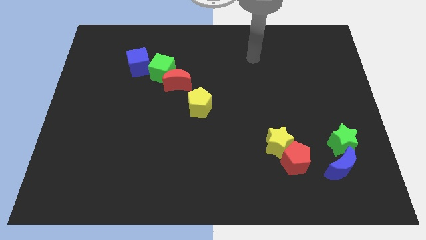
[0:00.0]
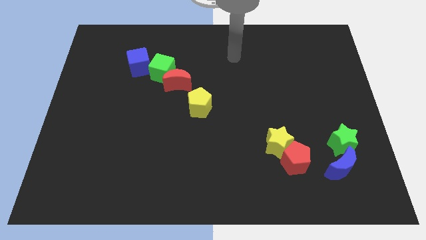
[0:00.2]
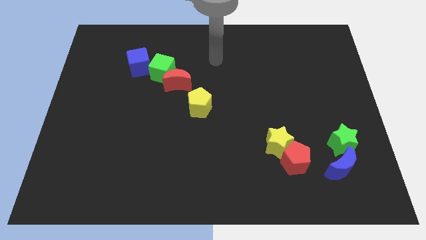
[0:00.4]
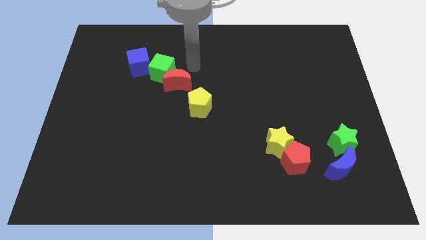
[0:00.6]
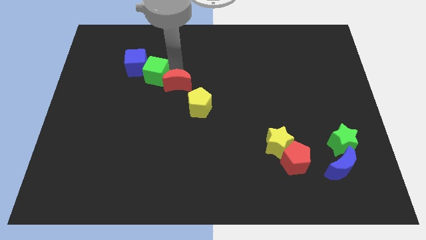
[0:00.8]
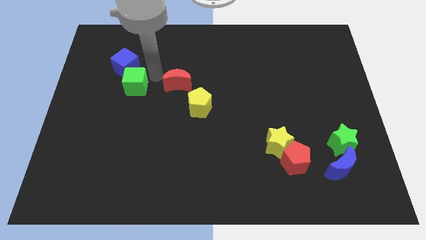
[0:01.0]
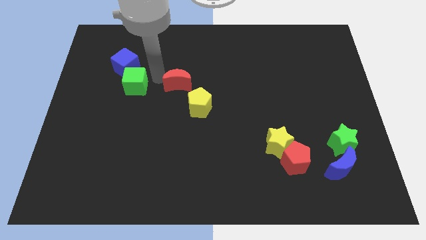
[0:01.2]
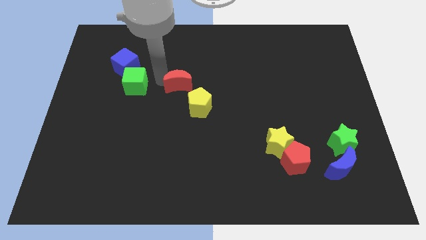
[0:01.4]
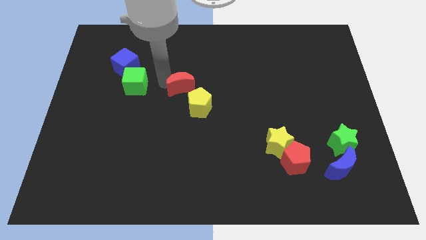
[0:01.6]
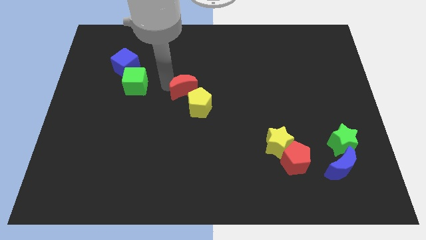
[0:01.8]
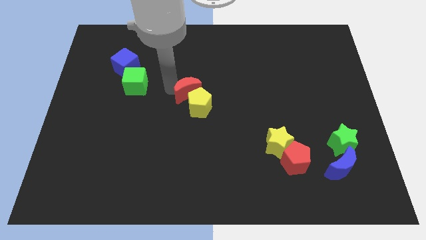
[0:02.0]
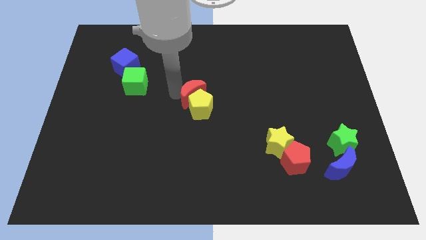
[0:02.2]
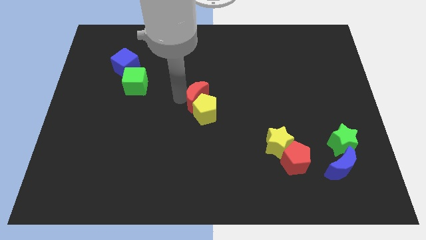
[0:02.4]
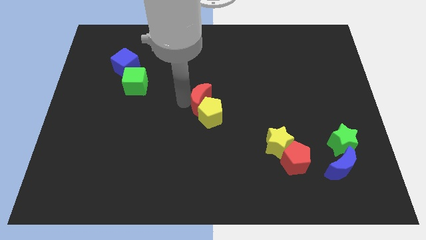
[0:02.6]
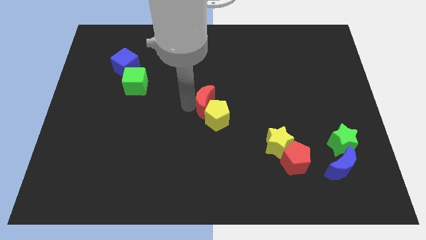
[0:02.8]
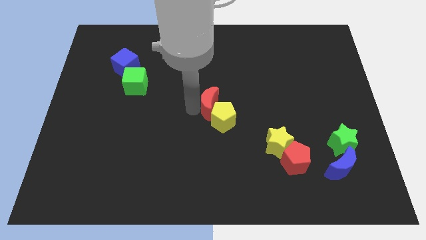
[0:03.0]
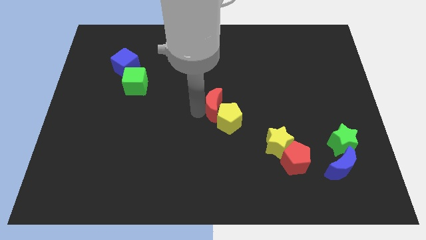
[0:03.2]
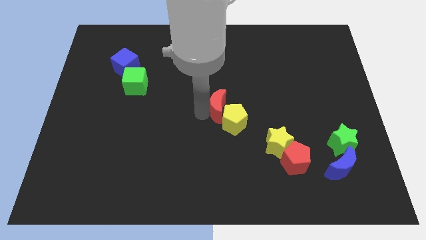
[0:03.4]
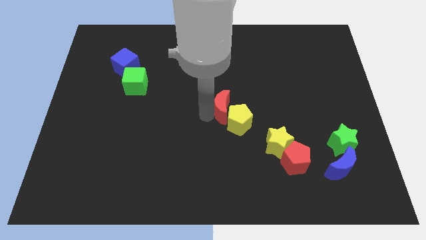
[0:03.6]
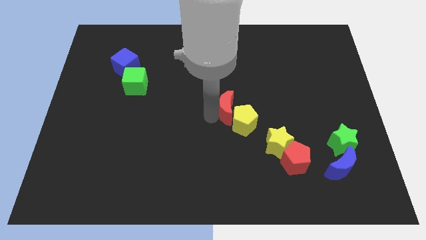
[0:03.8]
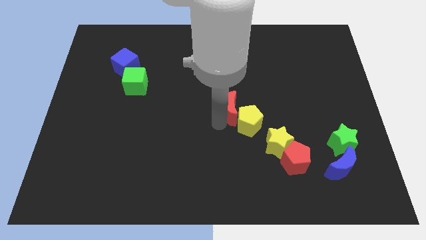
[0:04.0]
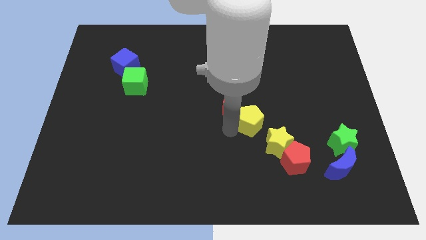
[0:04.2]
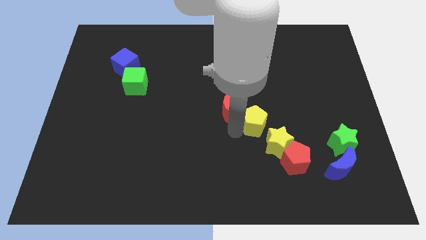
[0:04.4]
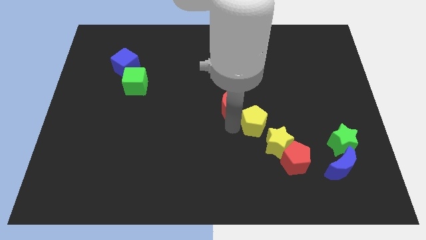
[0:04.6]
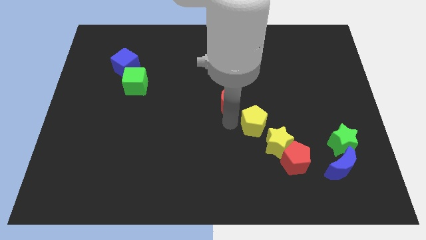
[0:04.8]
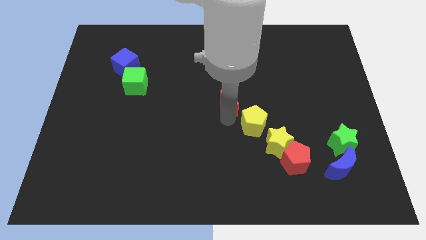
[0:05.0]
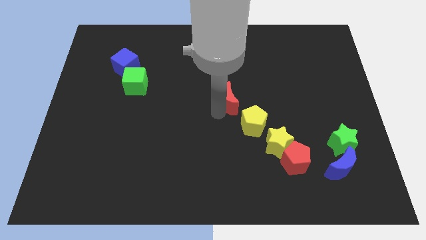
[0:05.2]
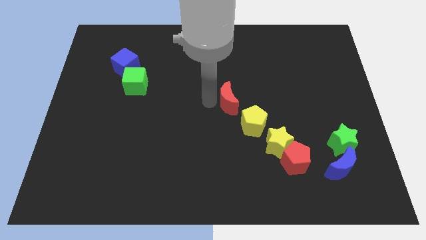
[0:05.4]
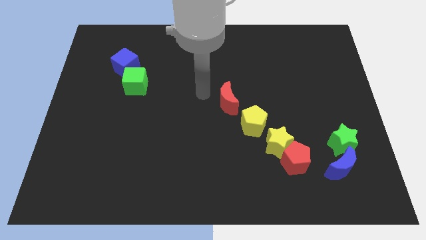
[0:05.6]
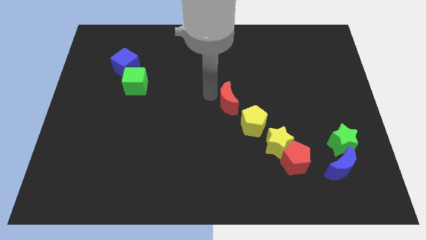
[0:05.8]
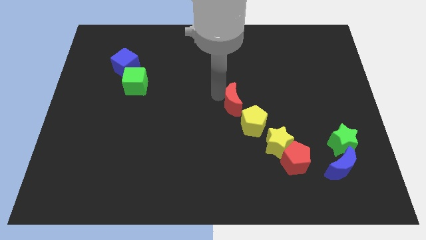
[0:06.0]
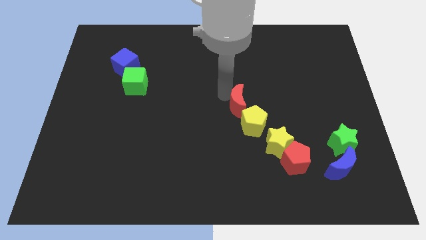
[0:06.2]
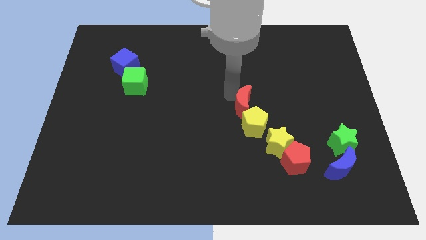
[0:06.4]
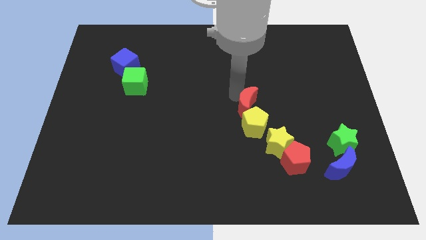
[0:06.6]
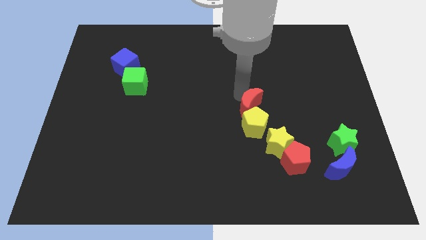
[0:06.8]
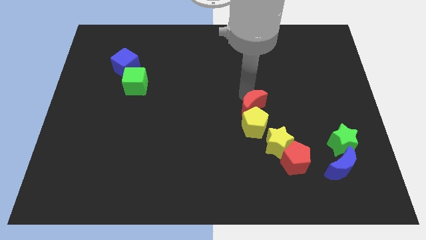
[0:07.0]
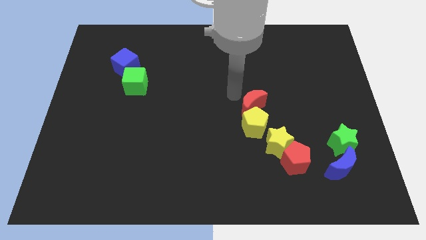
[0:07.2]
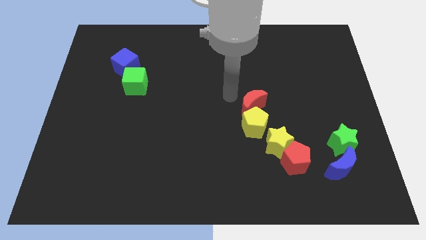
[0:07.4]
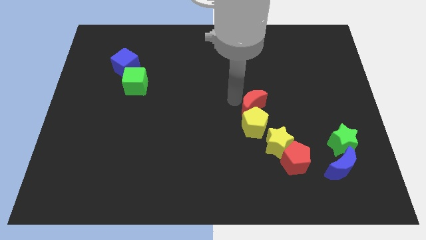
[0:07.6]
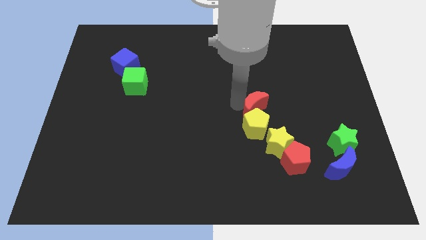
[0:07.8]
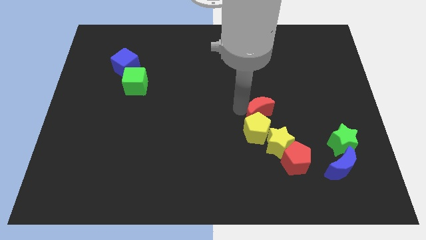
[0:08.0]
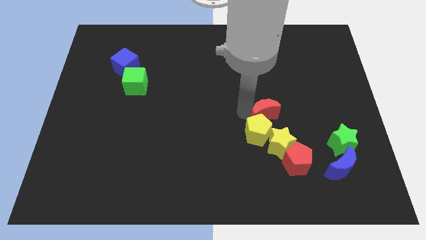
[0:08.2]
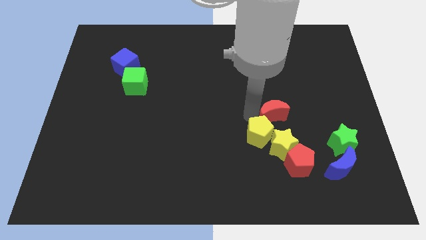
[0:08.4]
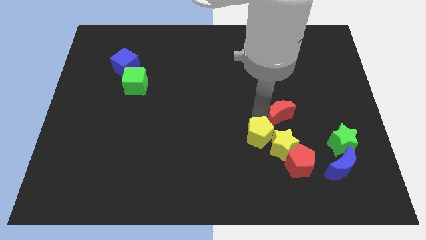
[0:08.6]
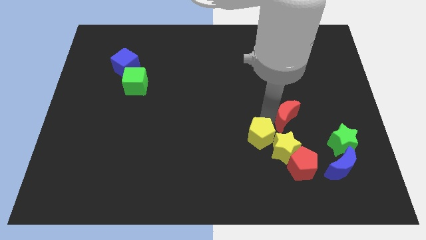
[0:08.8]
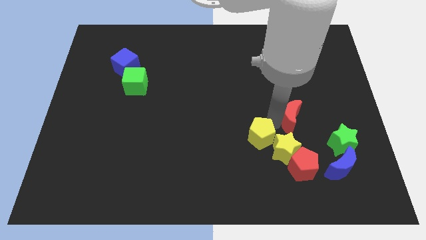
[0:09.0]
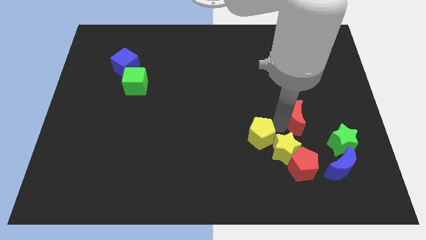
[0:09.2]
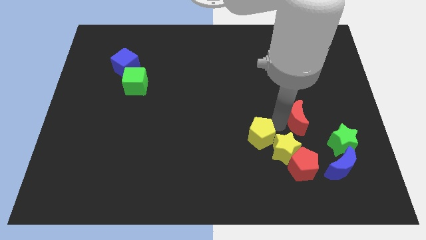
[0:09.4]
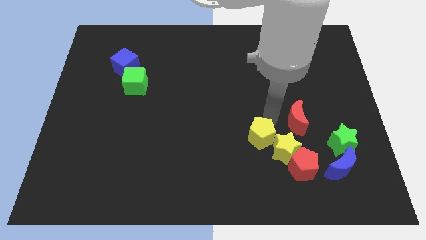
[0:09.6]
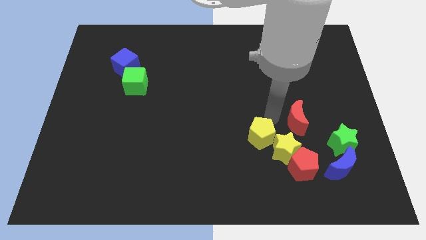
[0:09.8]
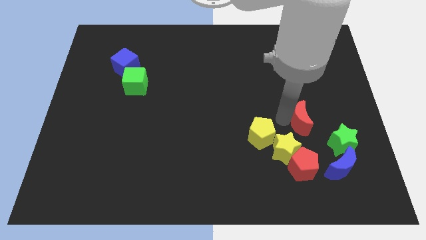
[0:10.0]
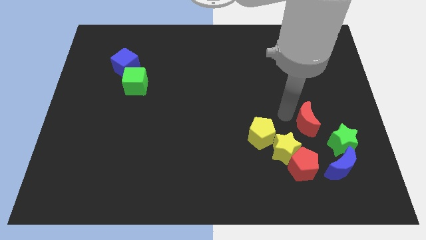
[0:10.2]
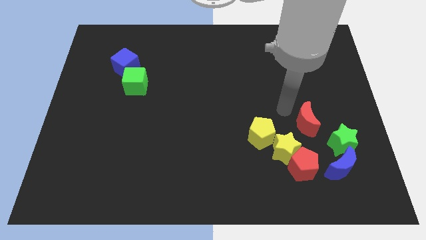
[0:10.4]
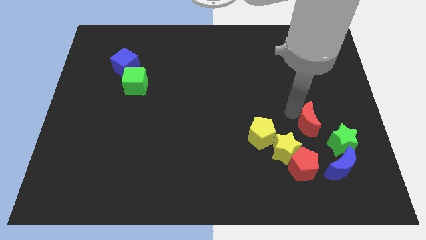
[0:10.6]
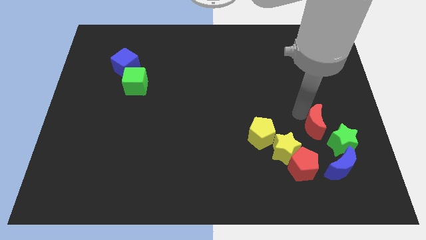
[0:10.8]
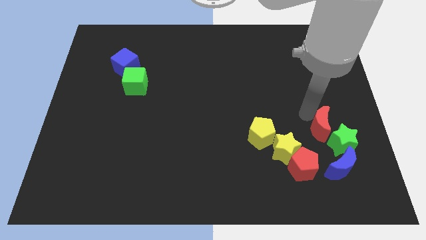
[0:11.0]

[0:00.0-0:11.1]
put the red moon to the green star

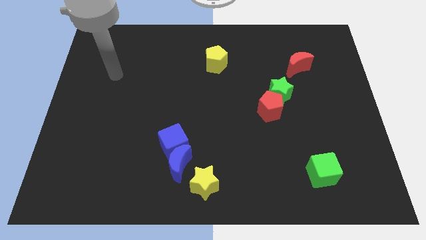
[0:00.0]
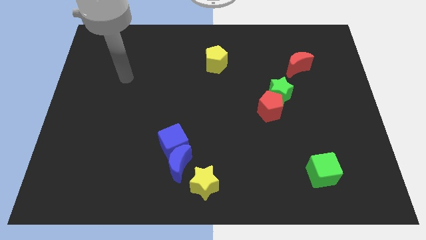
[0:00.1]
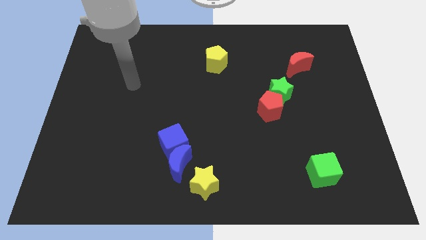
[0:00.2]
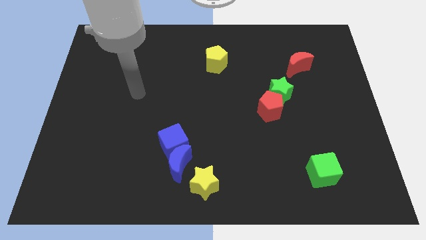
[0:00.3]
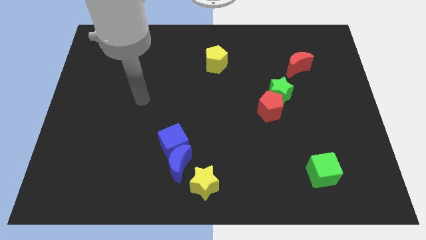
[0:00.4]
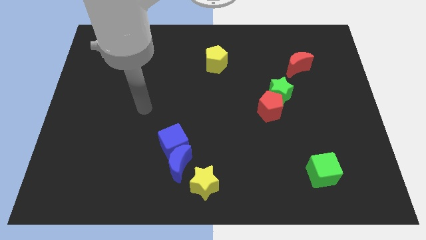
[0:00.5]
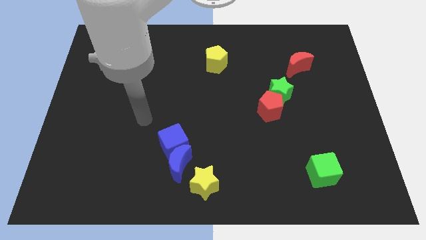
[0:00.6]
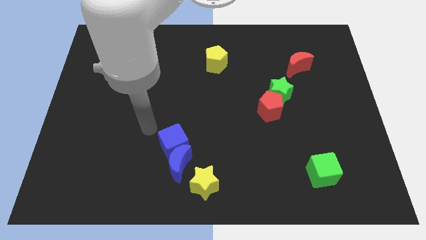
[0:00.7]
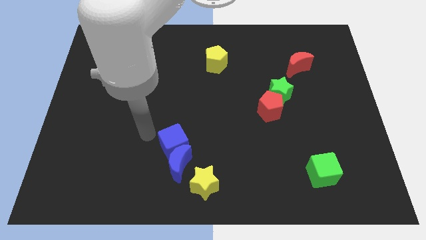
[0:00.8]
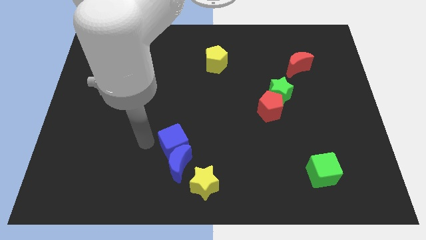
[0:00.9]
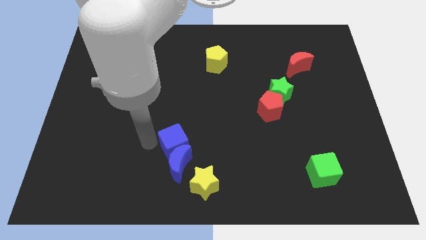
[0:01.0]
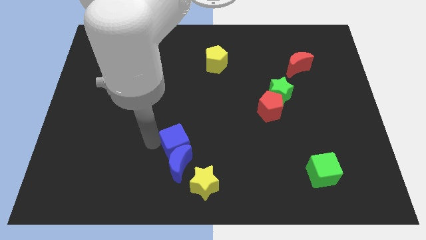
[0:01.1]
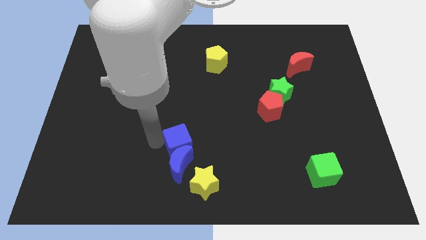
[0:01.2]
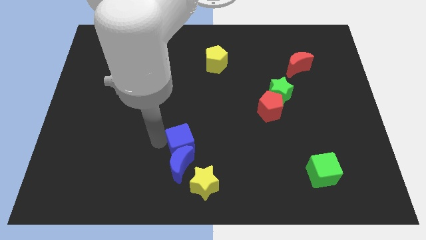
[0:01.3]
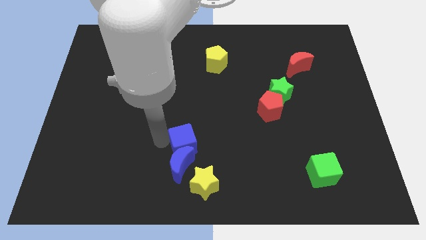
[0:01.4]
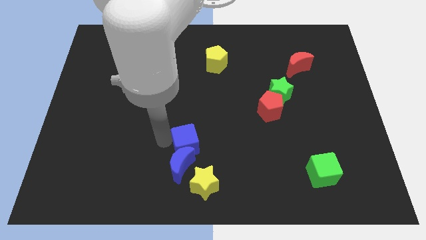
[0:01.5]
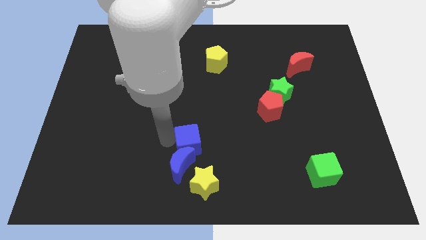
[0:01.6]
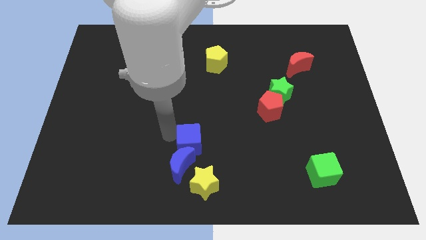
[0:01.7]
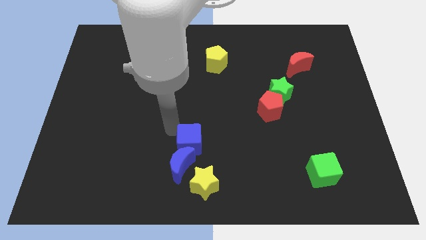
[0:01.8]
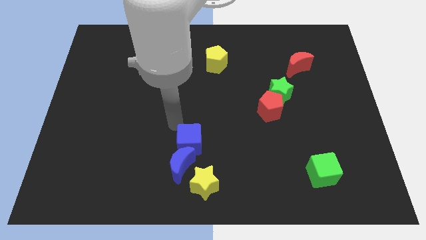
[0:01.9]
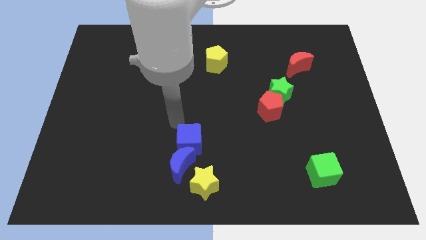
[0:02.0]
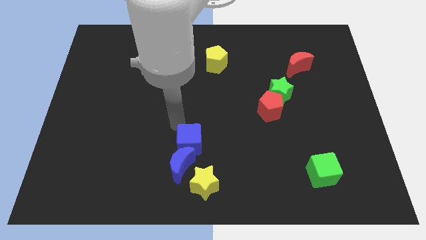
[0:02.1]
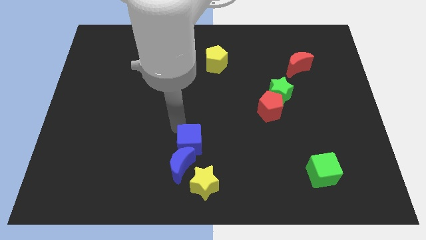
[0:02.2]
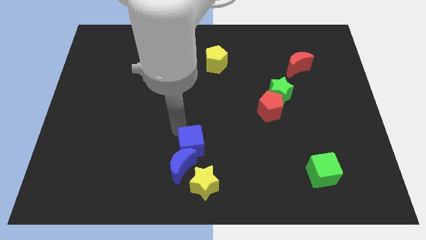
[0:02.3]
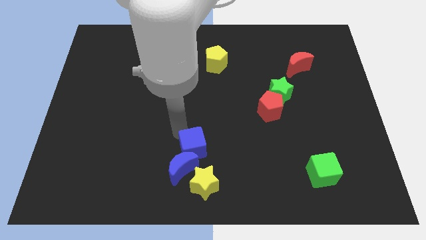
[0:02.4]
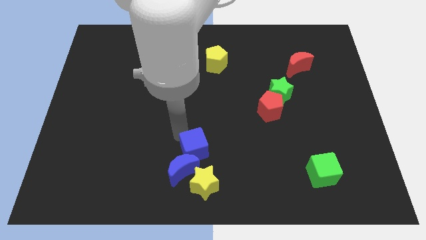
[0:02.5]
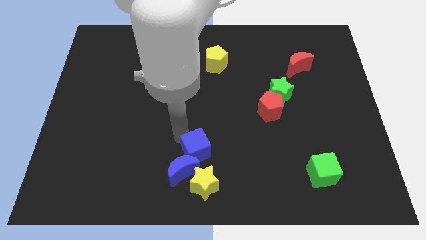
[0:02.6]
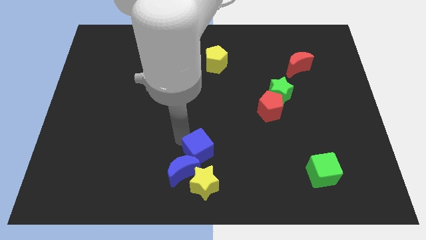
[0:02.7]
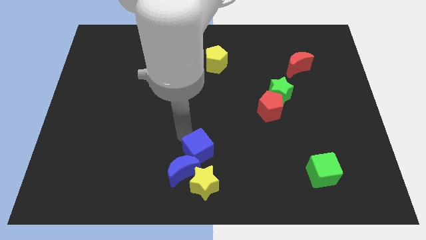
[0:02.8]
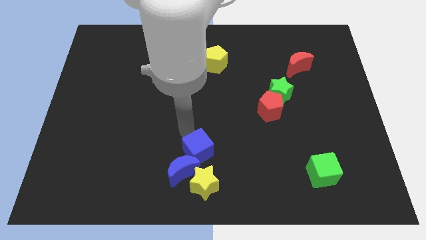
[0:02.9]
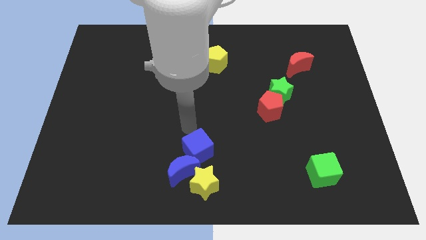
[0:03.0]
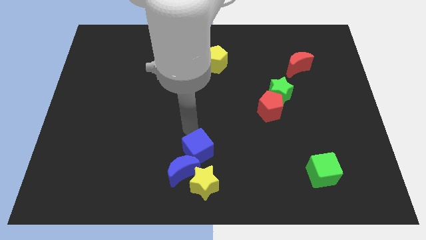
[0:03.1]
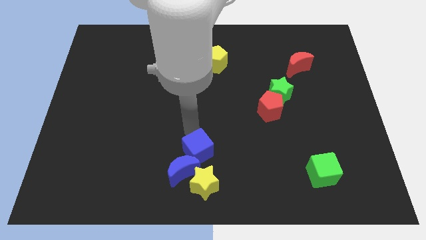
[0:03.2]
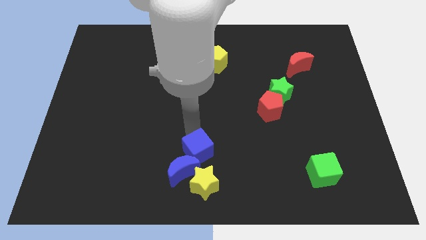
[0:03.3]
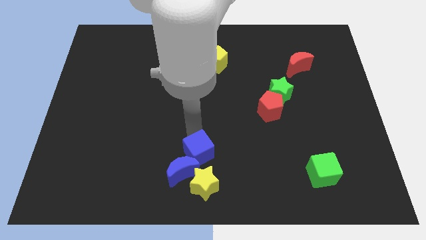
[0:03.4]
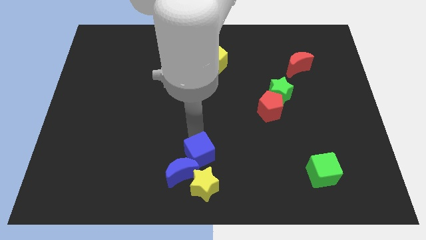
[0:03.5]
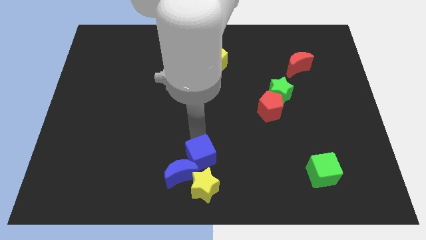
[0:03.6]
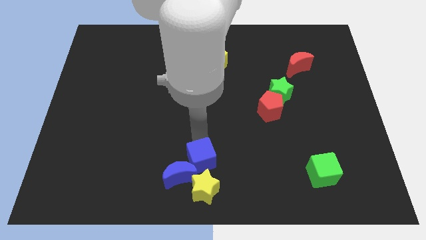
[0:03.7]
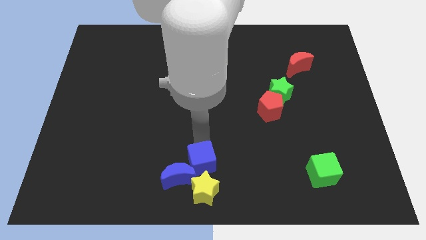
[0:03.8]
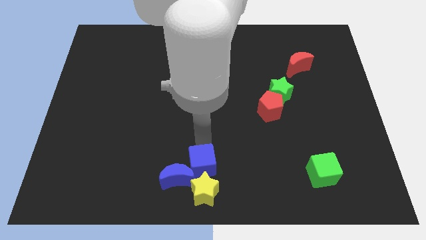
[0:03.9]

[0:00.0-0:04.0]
move the blue cube towards the yellow star
